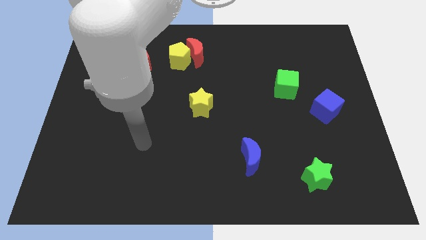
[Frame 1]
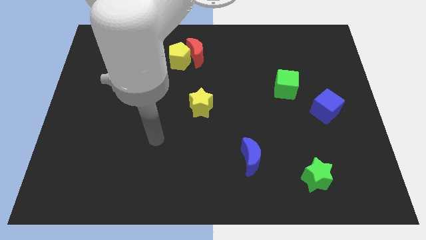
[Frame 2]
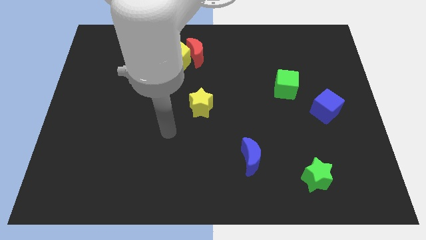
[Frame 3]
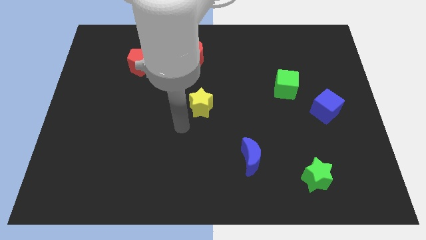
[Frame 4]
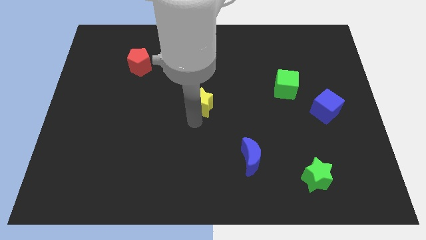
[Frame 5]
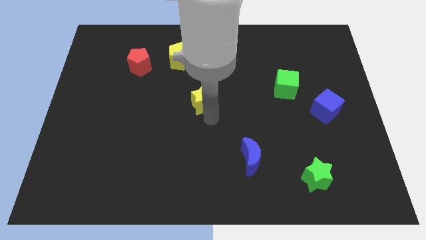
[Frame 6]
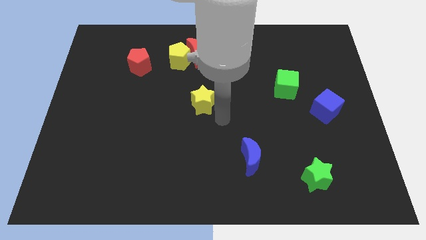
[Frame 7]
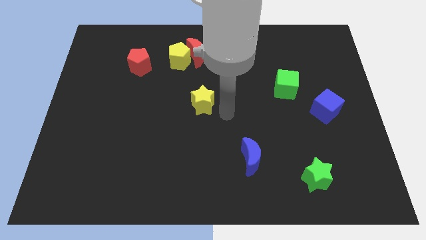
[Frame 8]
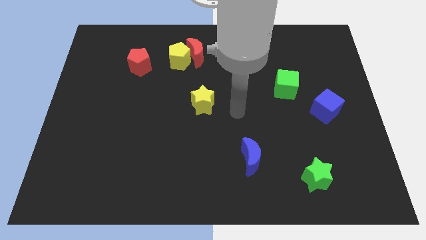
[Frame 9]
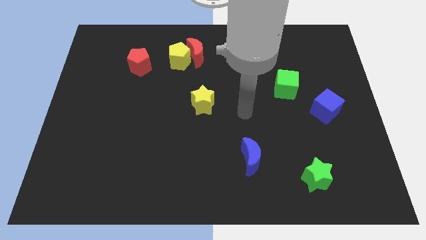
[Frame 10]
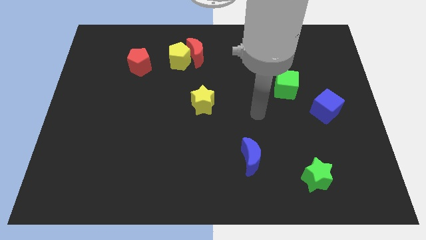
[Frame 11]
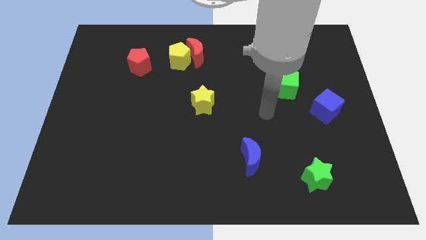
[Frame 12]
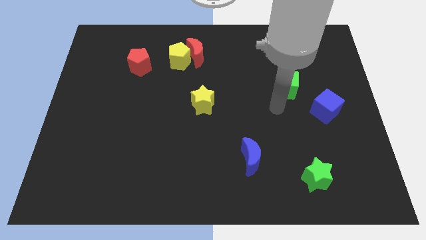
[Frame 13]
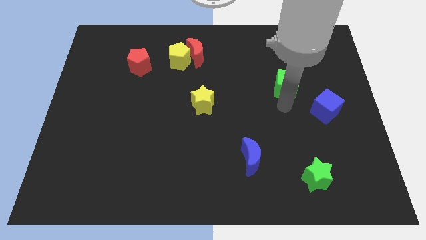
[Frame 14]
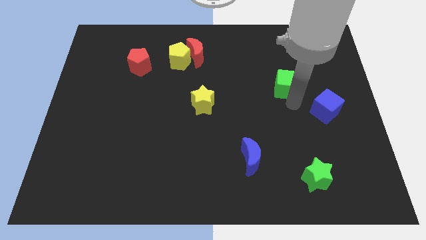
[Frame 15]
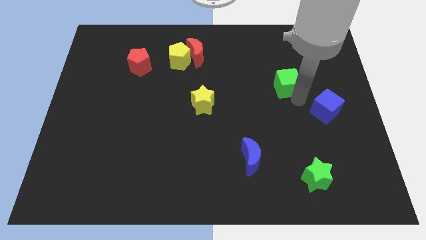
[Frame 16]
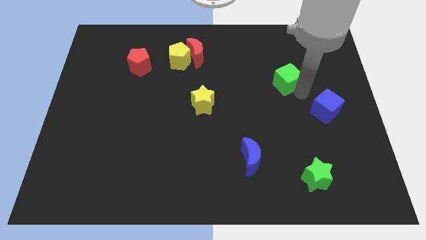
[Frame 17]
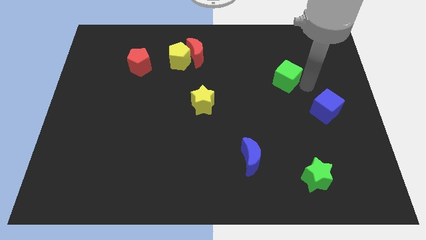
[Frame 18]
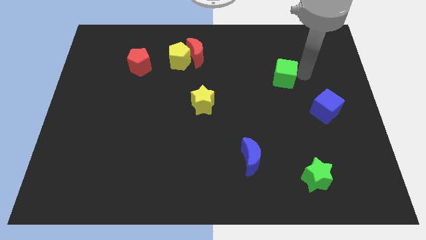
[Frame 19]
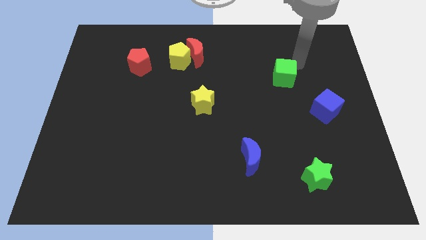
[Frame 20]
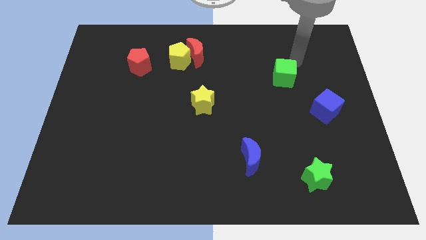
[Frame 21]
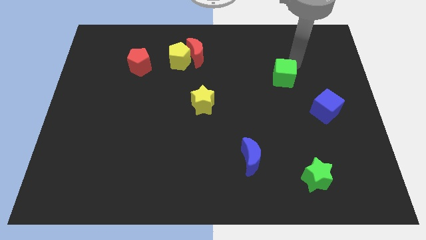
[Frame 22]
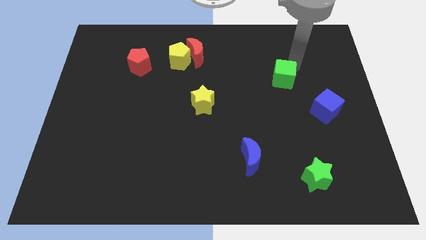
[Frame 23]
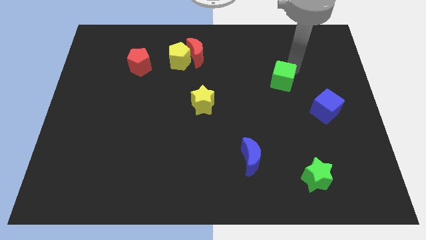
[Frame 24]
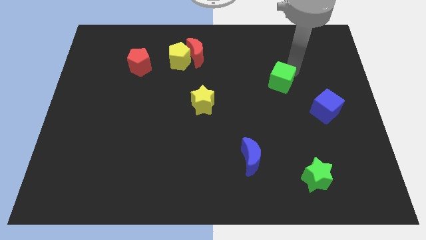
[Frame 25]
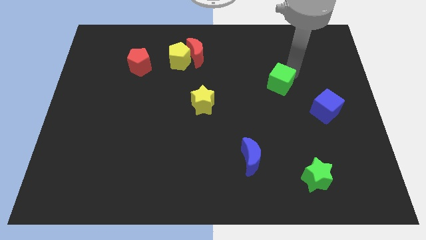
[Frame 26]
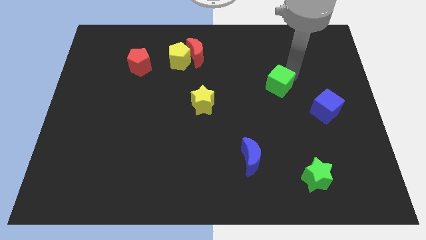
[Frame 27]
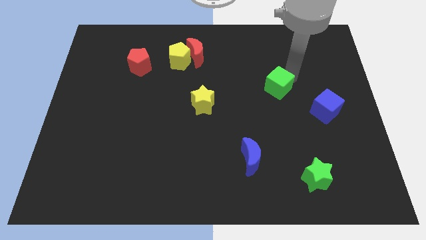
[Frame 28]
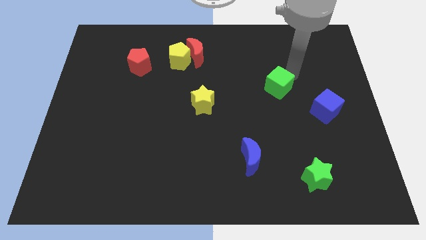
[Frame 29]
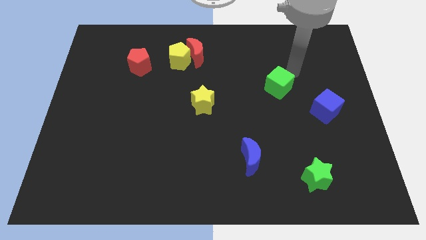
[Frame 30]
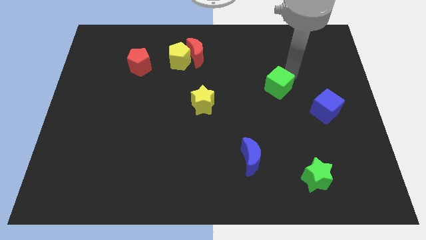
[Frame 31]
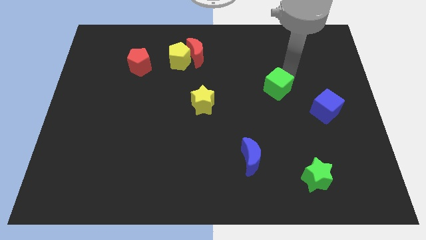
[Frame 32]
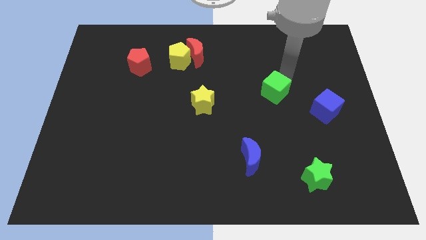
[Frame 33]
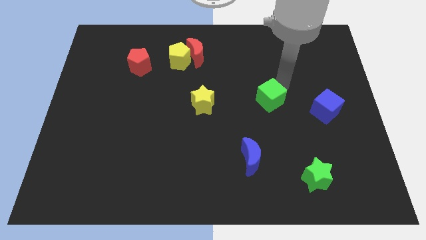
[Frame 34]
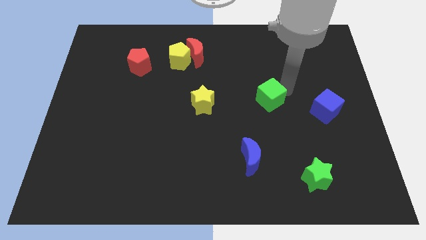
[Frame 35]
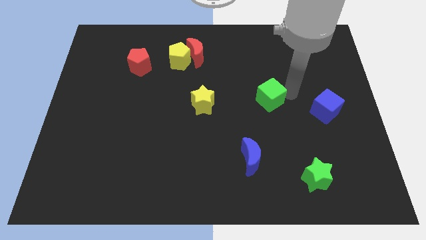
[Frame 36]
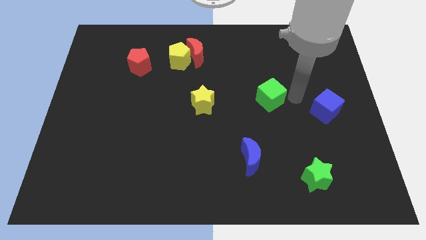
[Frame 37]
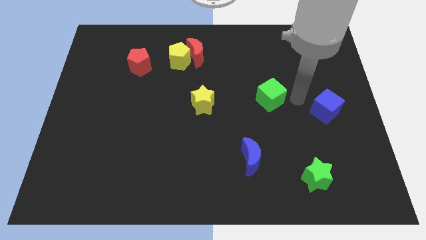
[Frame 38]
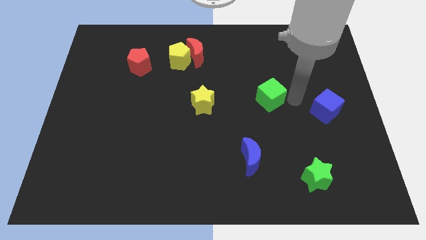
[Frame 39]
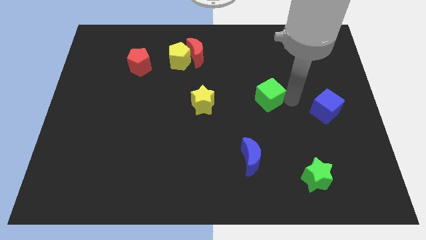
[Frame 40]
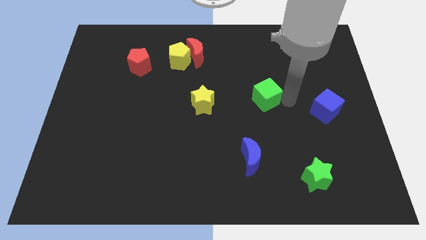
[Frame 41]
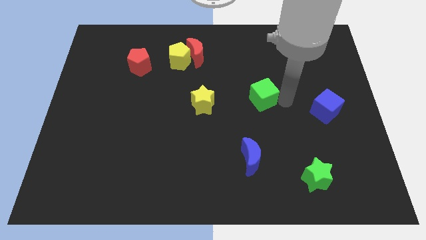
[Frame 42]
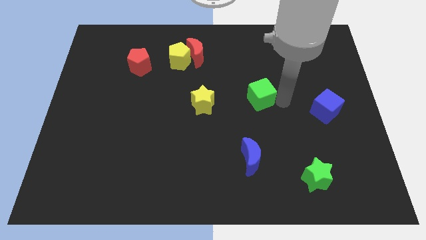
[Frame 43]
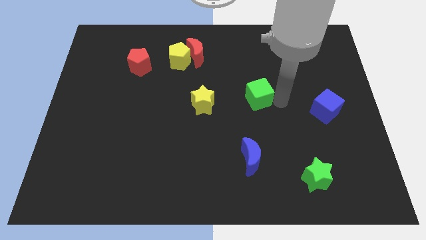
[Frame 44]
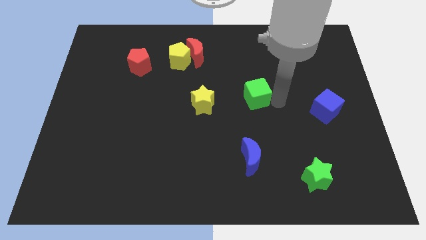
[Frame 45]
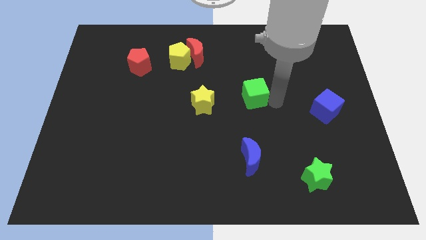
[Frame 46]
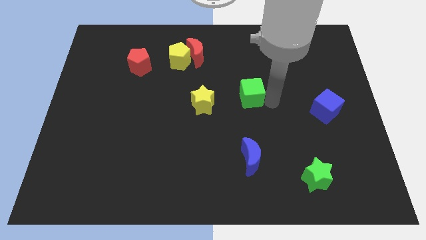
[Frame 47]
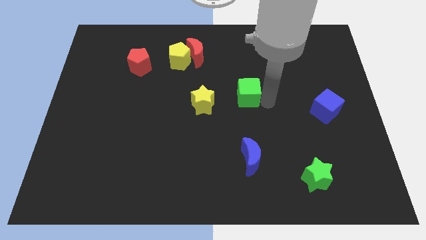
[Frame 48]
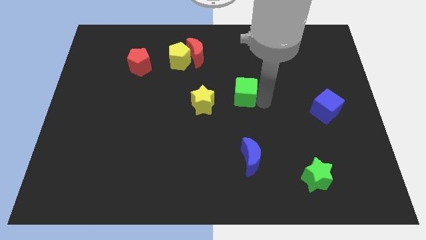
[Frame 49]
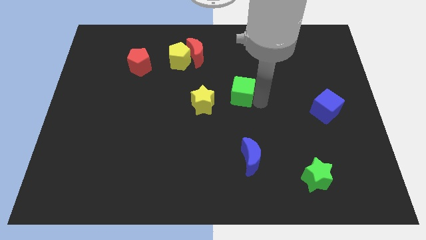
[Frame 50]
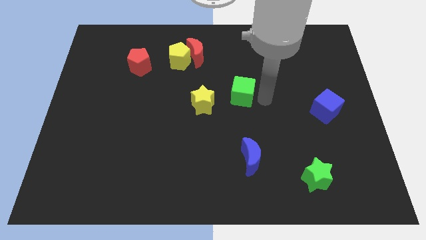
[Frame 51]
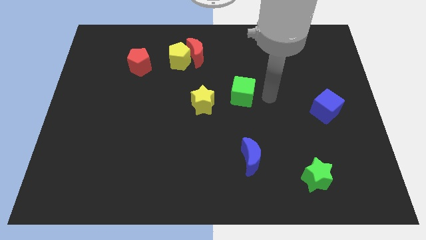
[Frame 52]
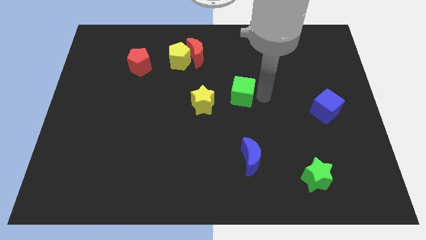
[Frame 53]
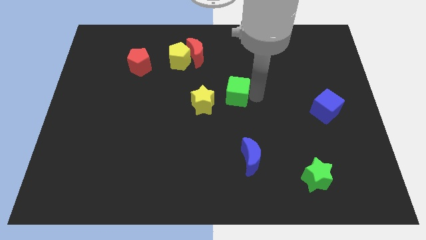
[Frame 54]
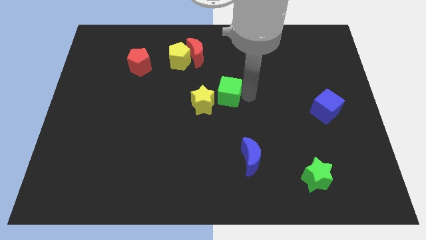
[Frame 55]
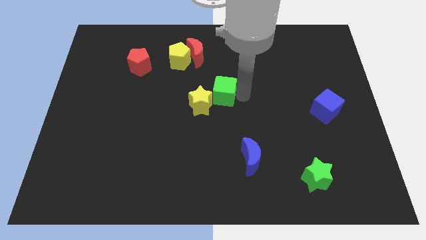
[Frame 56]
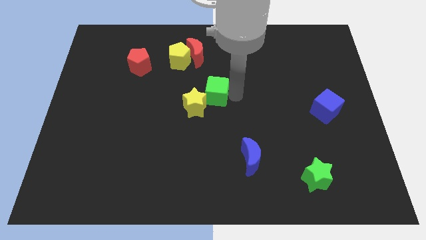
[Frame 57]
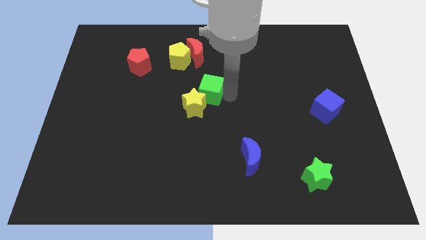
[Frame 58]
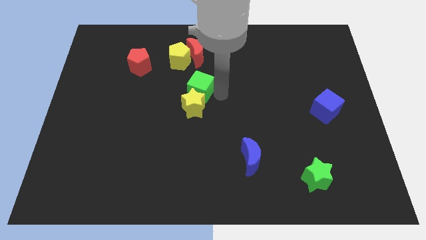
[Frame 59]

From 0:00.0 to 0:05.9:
slide the green cube to the left

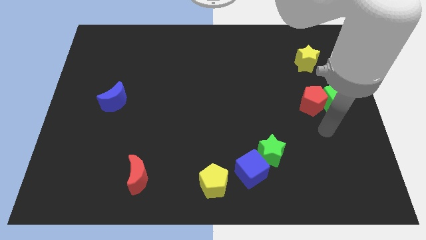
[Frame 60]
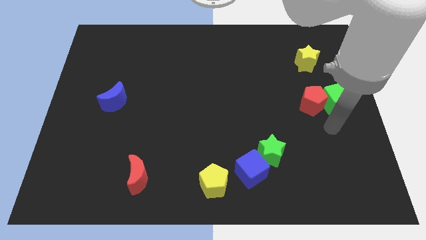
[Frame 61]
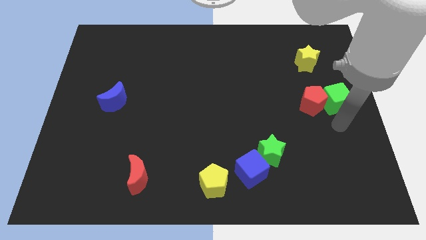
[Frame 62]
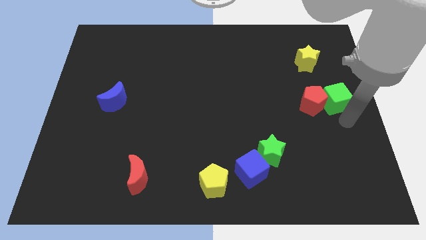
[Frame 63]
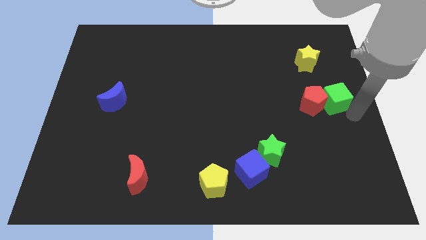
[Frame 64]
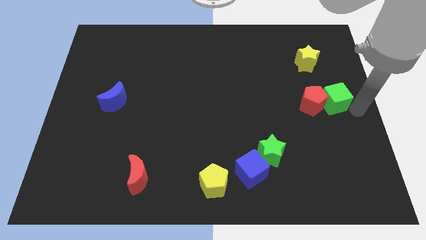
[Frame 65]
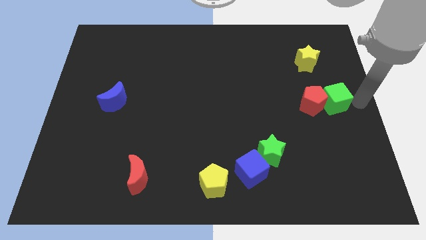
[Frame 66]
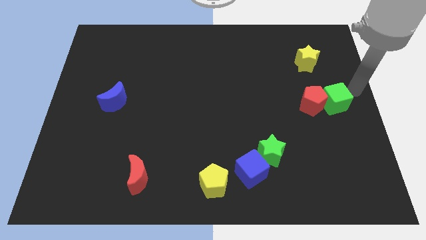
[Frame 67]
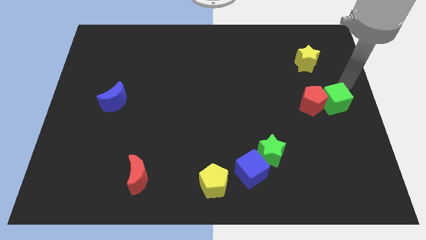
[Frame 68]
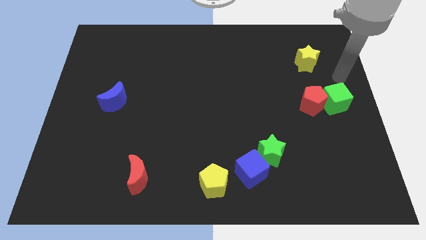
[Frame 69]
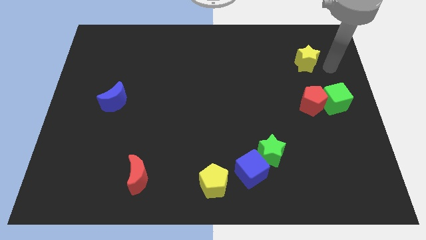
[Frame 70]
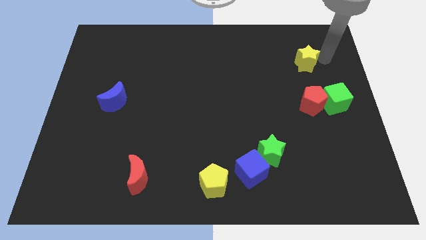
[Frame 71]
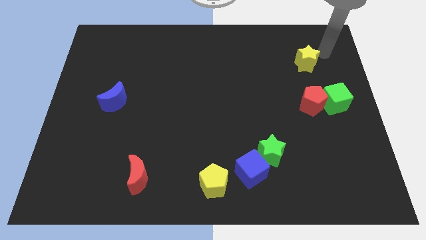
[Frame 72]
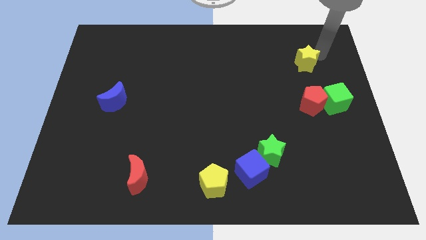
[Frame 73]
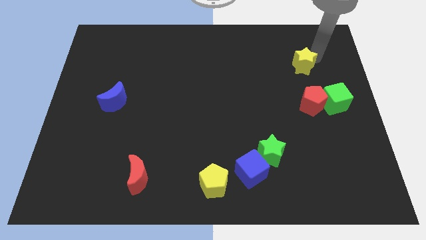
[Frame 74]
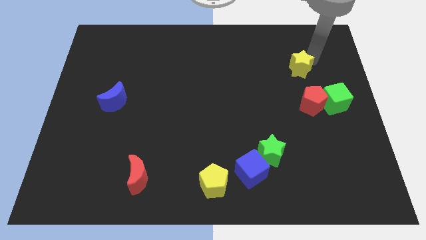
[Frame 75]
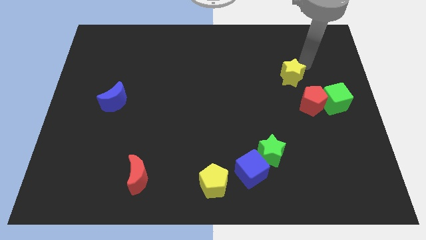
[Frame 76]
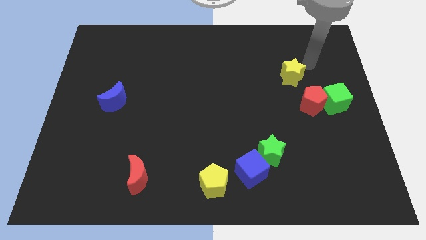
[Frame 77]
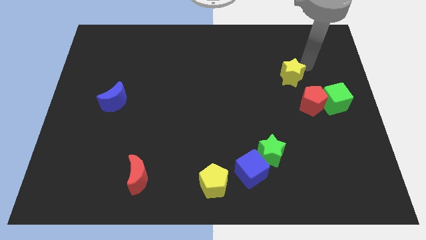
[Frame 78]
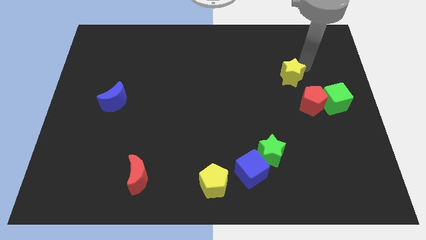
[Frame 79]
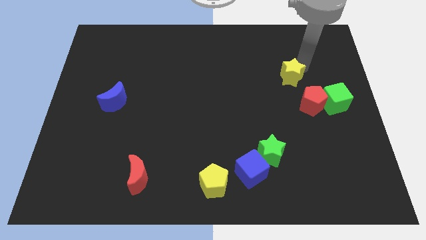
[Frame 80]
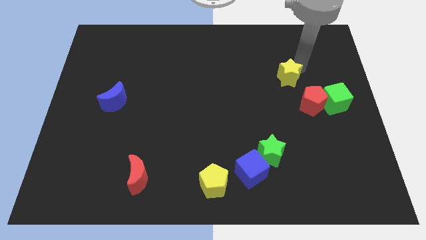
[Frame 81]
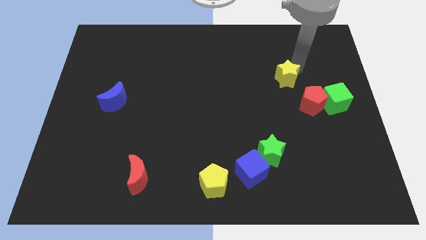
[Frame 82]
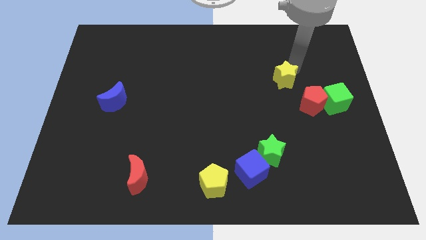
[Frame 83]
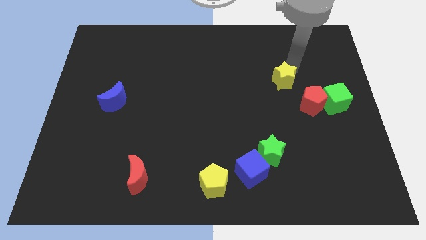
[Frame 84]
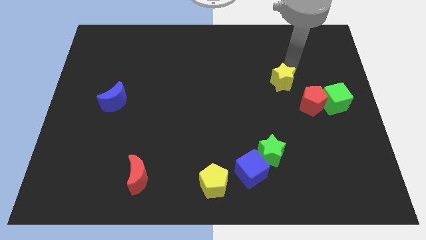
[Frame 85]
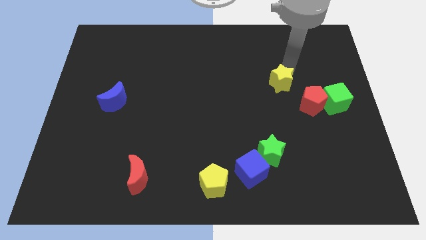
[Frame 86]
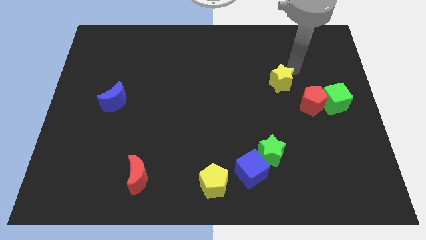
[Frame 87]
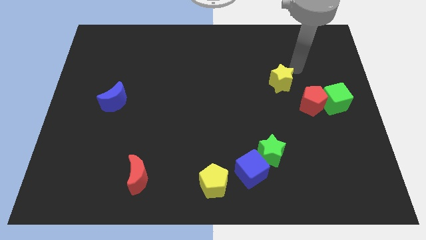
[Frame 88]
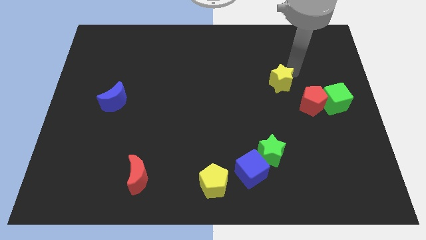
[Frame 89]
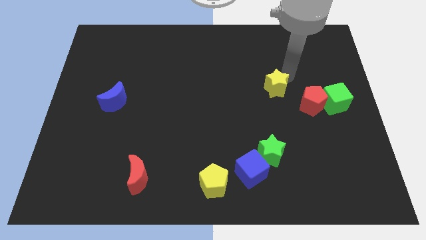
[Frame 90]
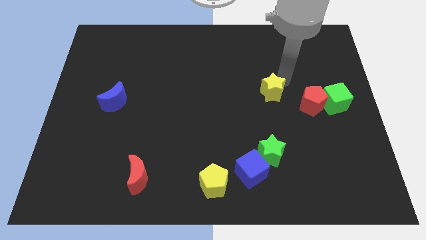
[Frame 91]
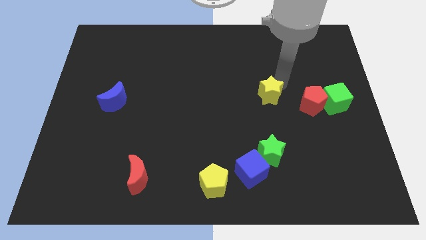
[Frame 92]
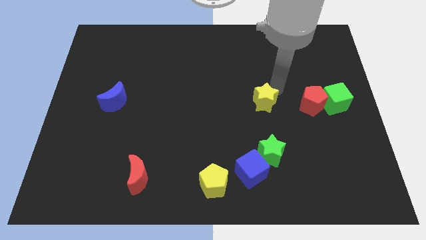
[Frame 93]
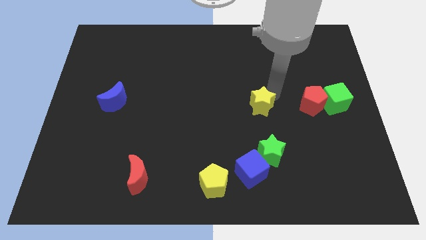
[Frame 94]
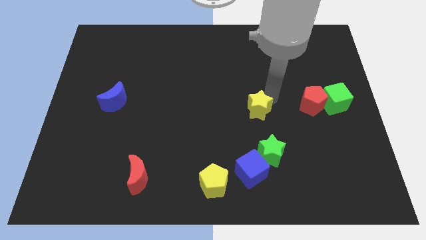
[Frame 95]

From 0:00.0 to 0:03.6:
slide the yellow star down and left diagonally
